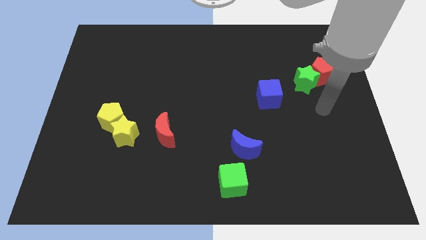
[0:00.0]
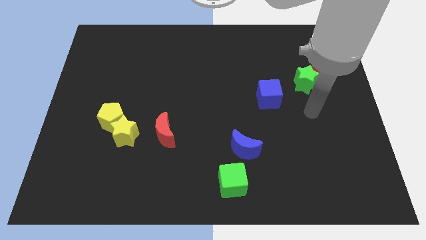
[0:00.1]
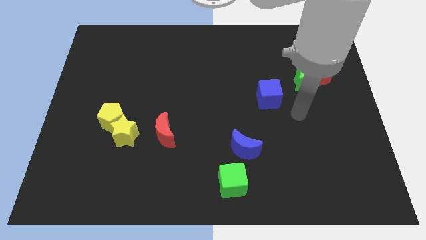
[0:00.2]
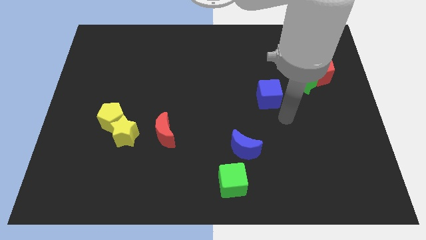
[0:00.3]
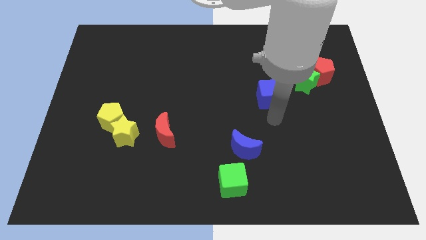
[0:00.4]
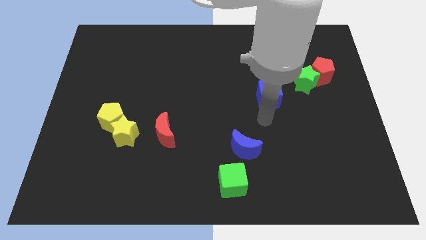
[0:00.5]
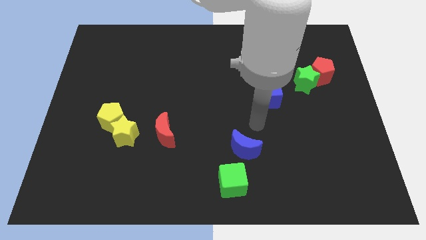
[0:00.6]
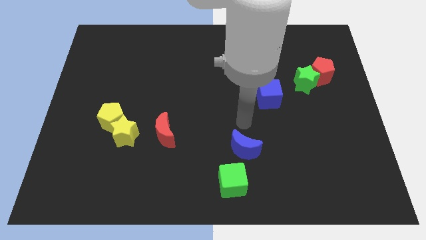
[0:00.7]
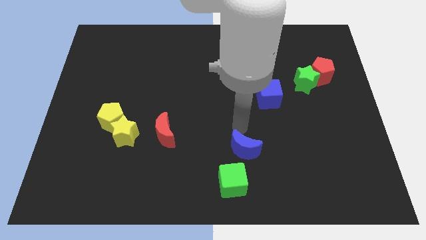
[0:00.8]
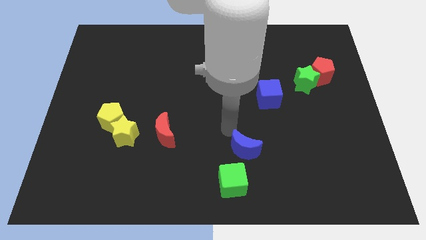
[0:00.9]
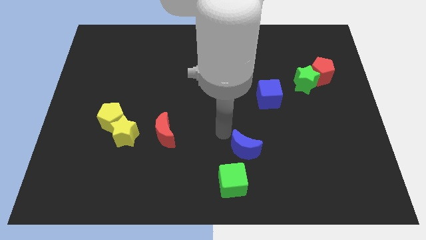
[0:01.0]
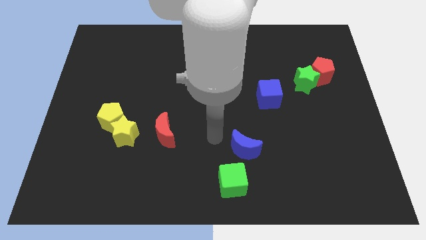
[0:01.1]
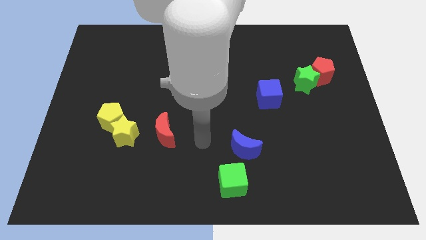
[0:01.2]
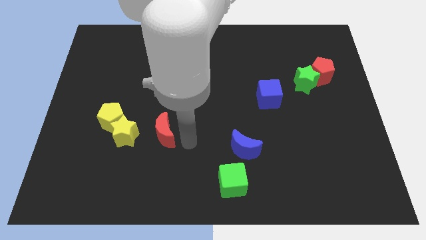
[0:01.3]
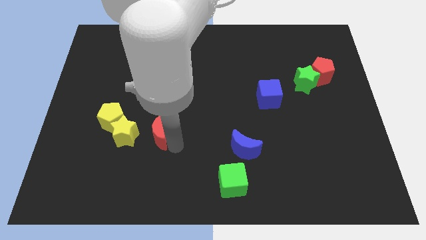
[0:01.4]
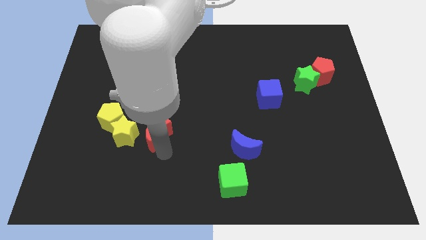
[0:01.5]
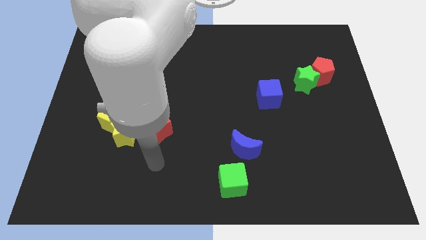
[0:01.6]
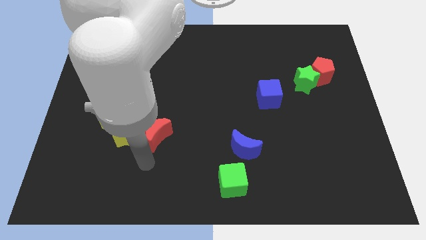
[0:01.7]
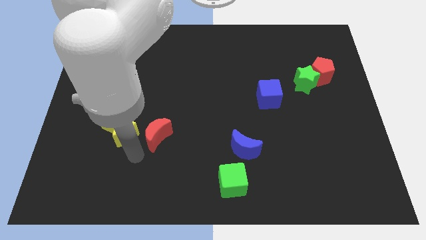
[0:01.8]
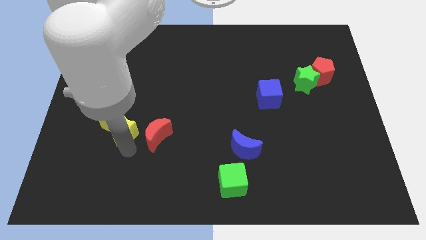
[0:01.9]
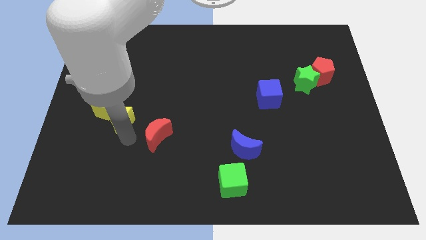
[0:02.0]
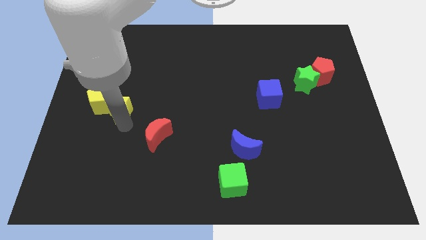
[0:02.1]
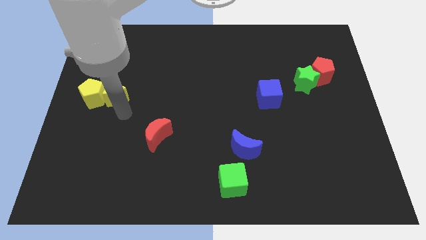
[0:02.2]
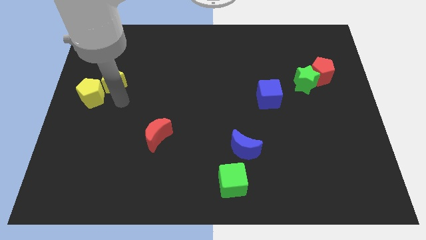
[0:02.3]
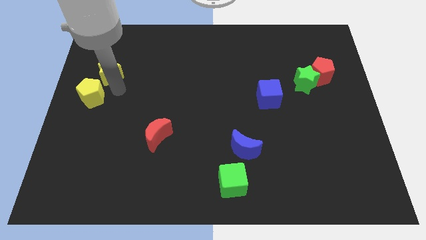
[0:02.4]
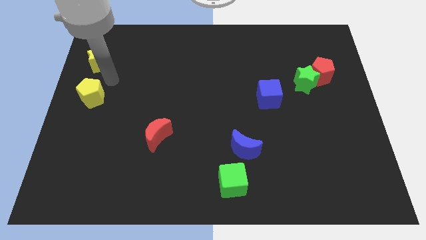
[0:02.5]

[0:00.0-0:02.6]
separate the yellow pentagon from the yellow star

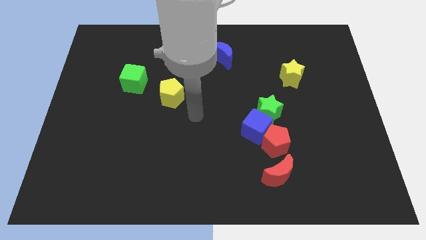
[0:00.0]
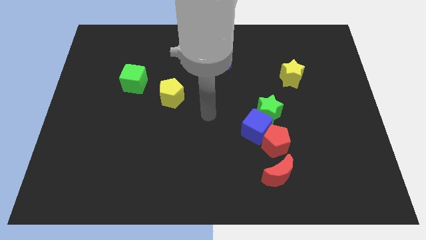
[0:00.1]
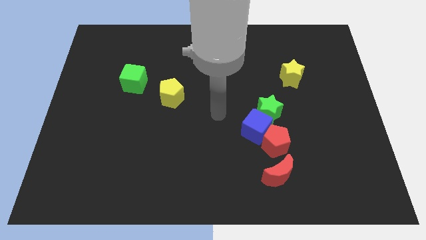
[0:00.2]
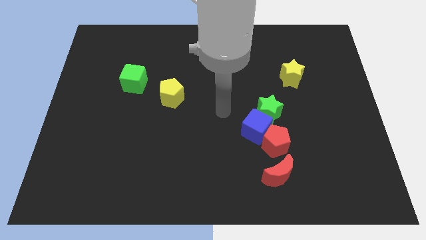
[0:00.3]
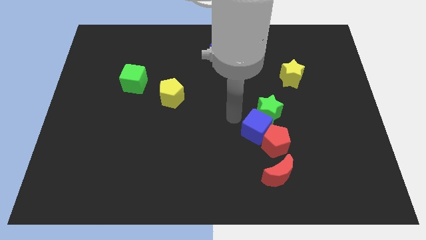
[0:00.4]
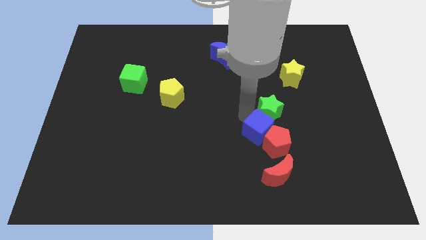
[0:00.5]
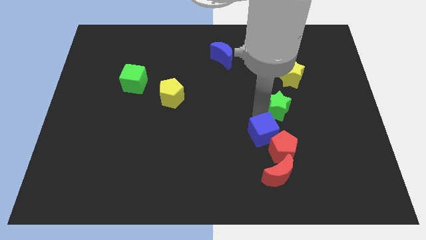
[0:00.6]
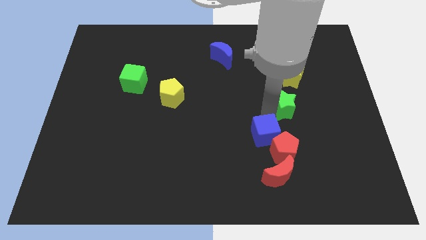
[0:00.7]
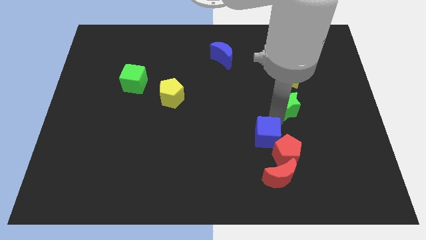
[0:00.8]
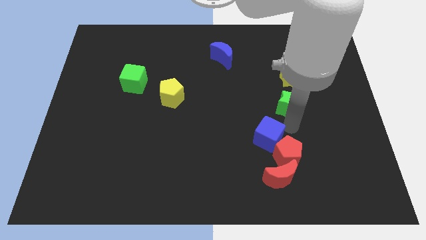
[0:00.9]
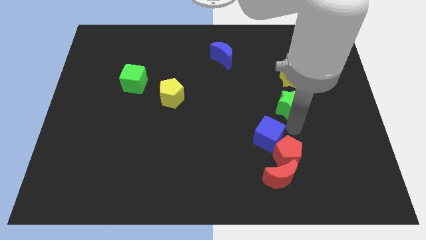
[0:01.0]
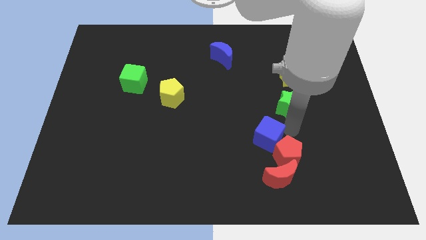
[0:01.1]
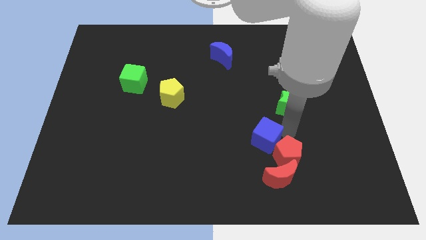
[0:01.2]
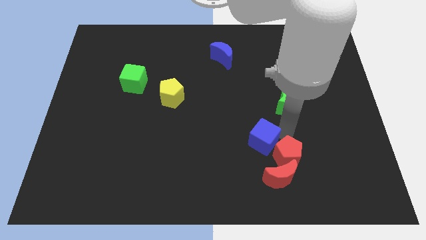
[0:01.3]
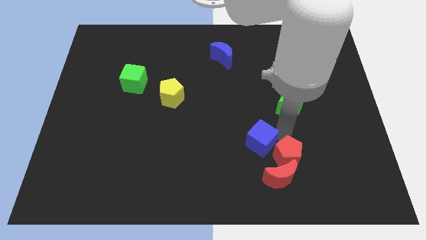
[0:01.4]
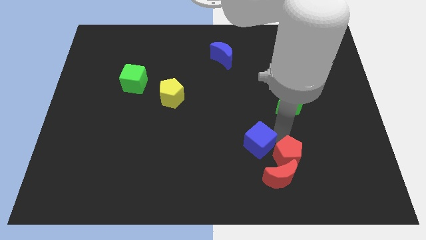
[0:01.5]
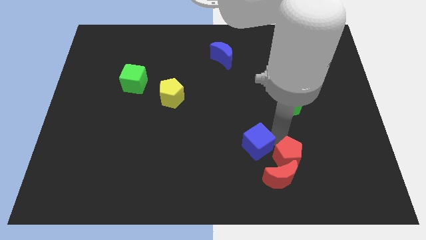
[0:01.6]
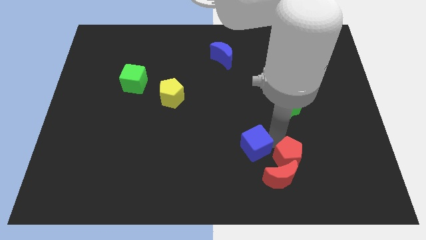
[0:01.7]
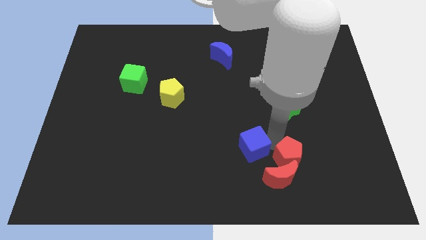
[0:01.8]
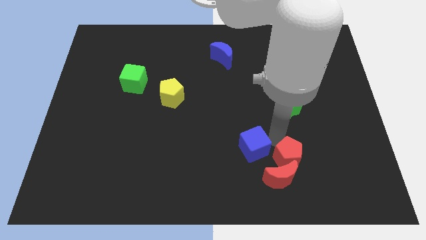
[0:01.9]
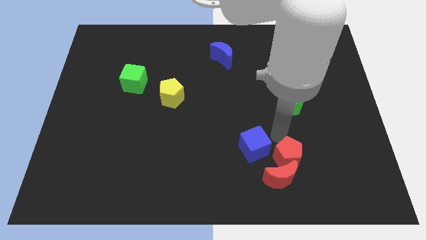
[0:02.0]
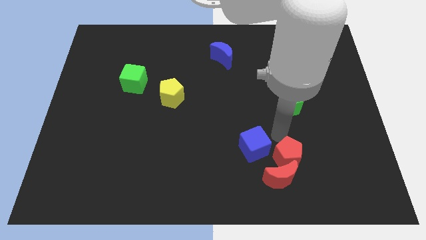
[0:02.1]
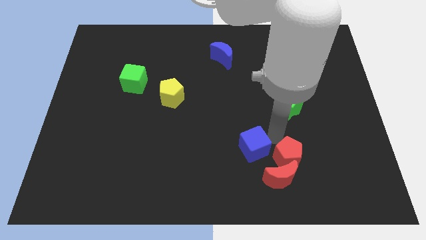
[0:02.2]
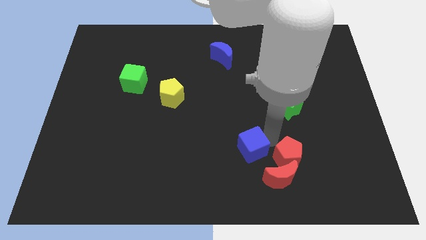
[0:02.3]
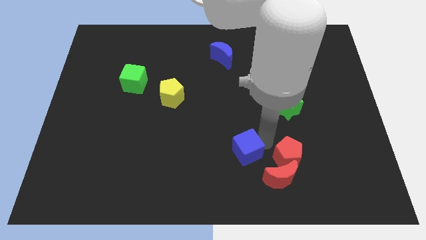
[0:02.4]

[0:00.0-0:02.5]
move the blue cube away from the red pentagon and green star

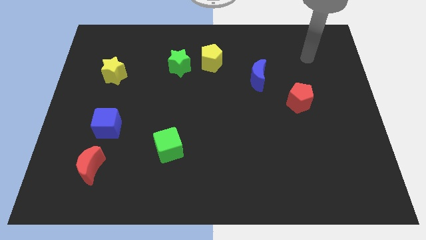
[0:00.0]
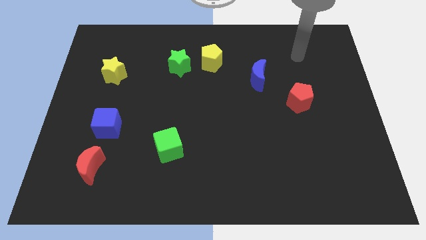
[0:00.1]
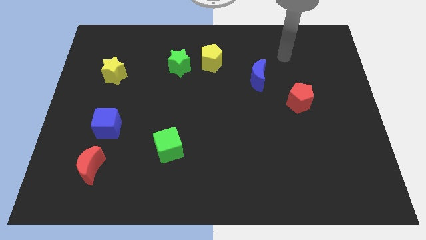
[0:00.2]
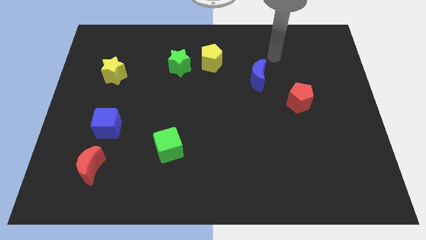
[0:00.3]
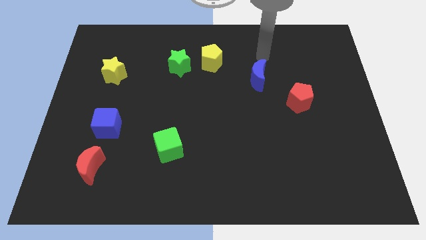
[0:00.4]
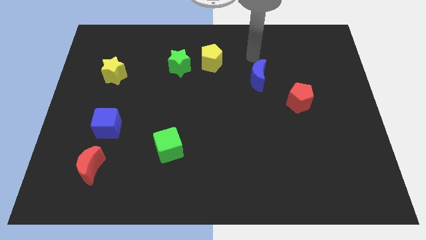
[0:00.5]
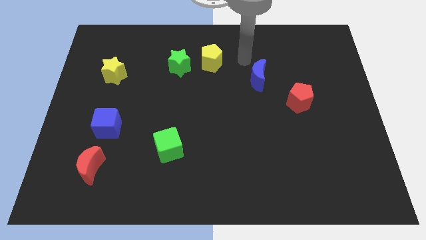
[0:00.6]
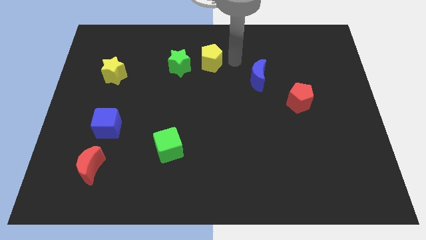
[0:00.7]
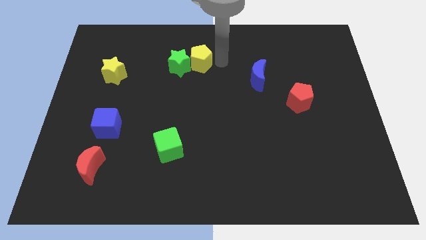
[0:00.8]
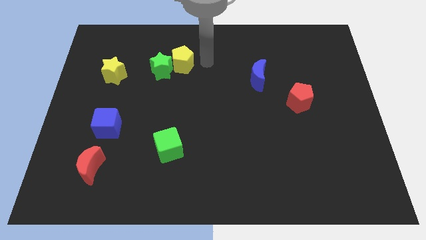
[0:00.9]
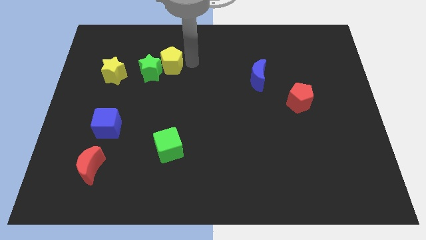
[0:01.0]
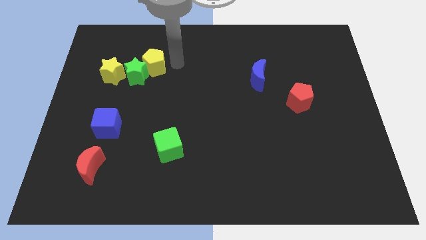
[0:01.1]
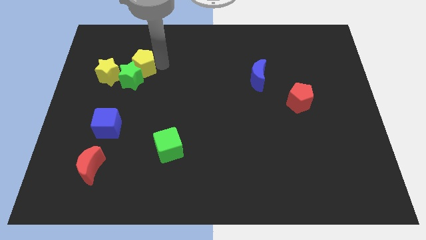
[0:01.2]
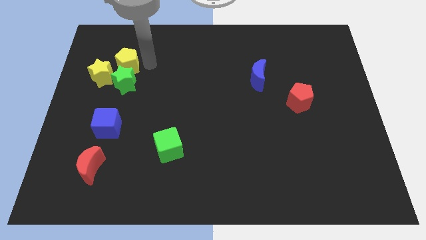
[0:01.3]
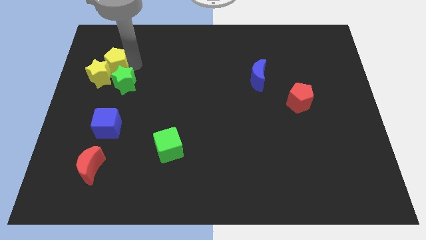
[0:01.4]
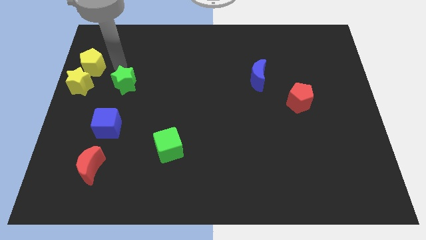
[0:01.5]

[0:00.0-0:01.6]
pull the green star apart from the yellow pentagon

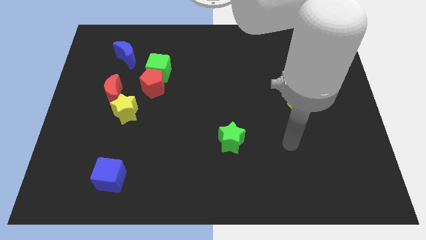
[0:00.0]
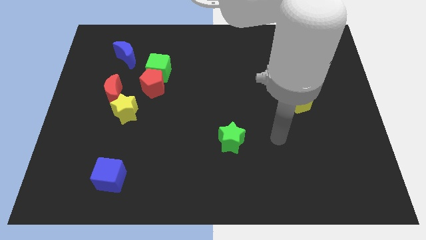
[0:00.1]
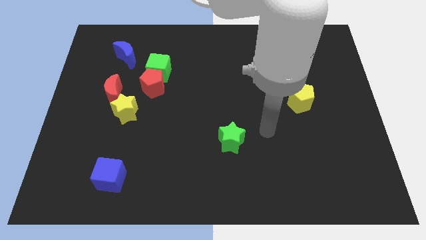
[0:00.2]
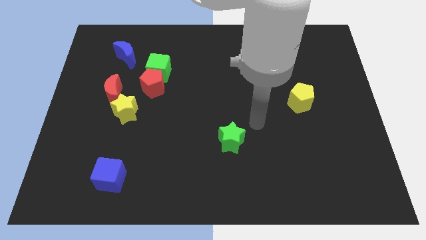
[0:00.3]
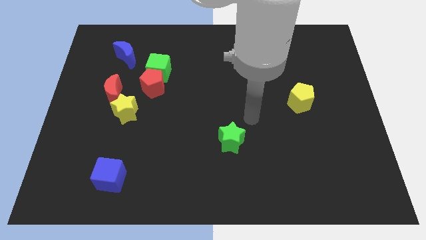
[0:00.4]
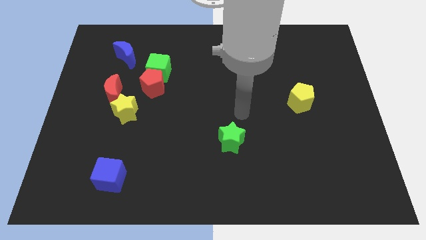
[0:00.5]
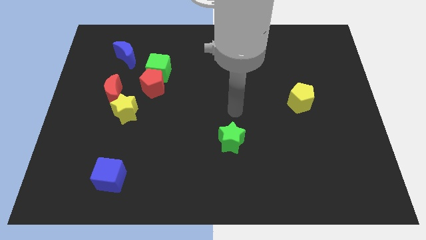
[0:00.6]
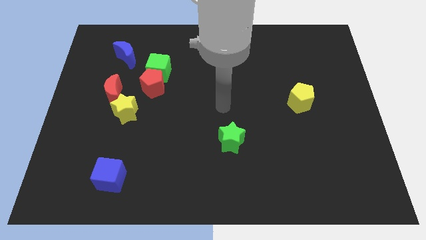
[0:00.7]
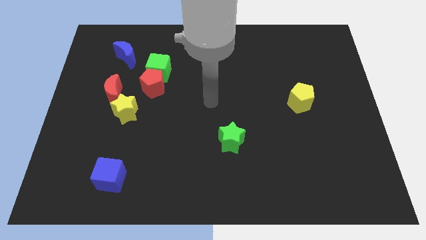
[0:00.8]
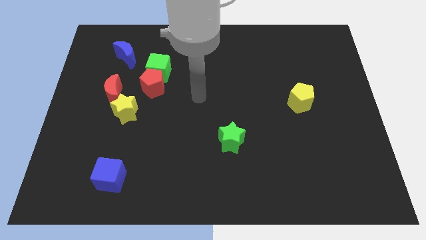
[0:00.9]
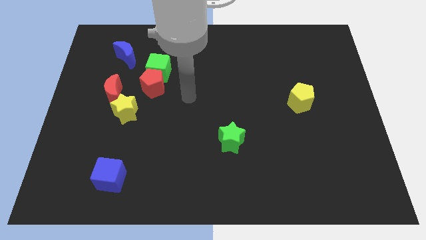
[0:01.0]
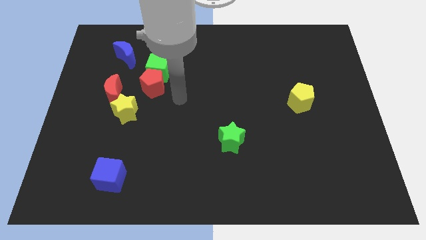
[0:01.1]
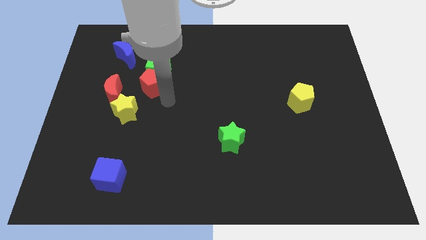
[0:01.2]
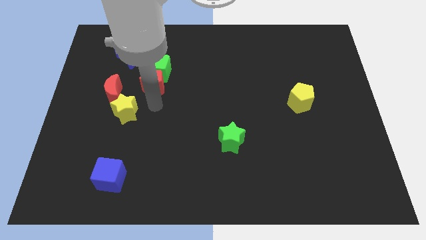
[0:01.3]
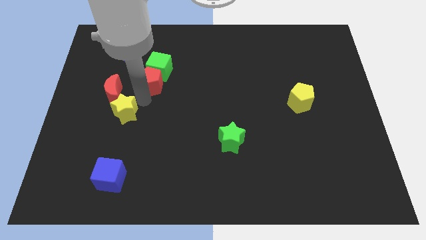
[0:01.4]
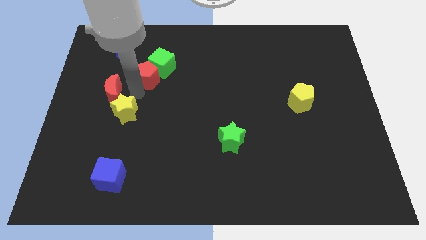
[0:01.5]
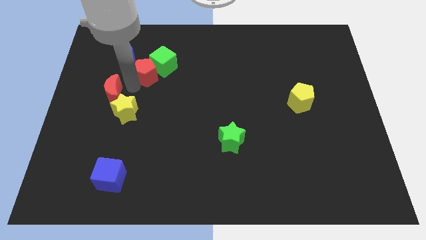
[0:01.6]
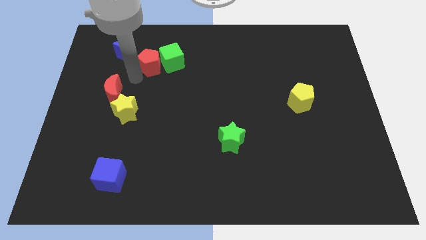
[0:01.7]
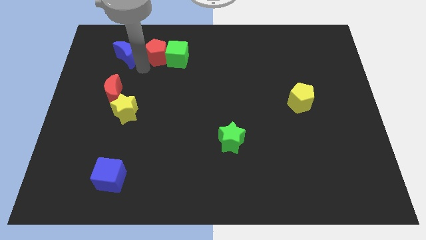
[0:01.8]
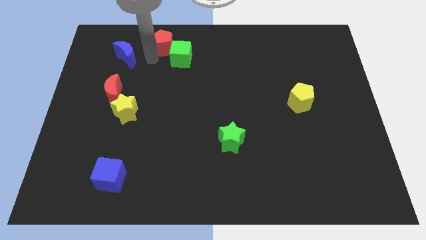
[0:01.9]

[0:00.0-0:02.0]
move the green cube away from the red pentagon and blue moon

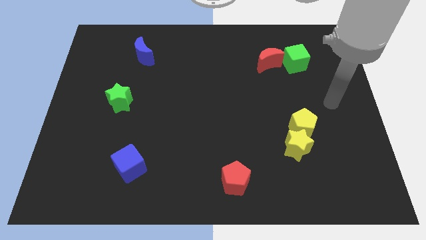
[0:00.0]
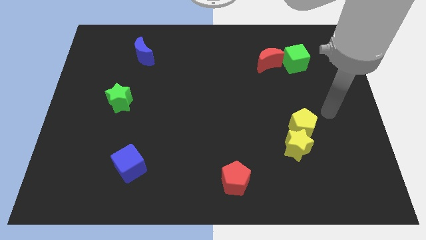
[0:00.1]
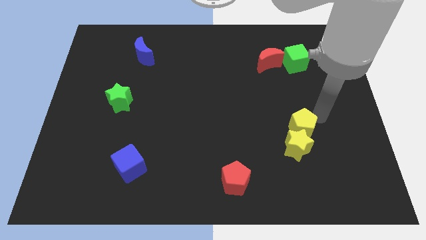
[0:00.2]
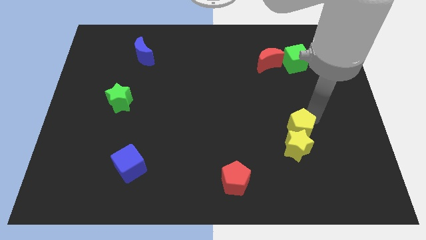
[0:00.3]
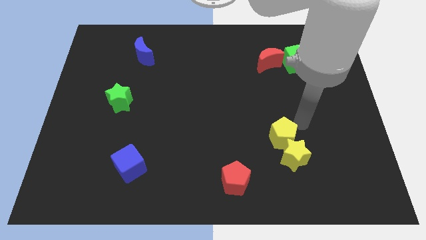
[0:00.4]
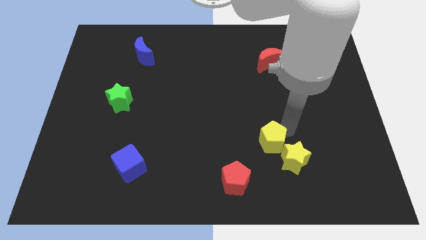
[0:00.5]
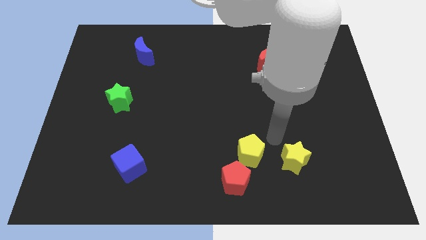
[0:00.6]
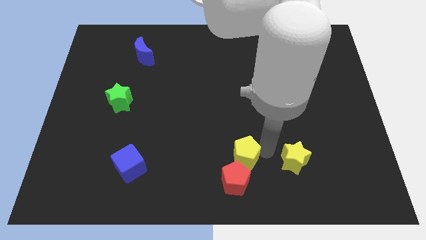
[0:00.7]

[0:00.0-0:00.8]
pull the yellow star apart from the yellow pentagon
